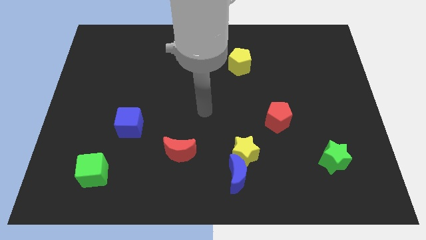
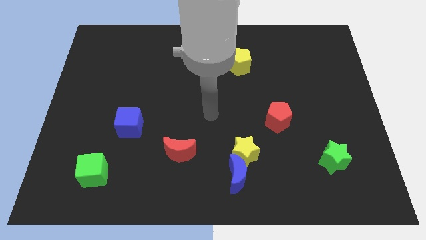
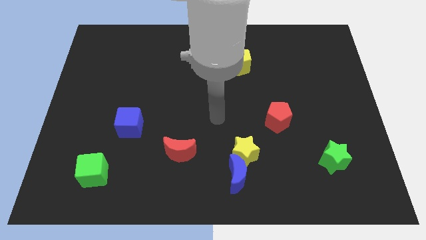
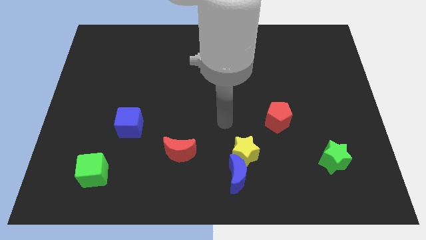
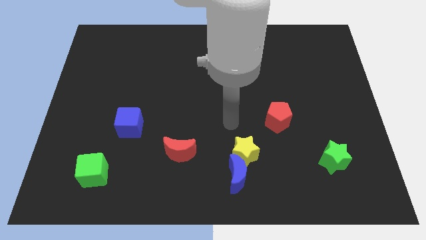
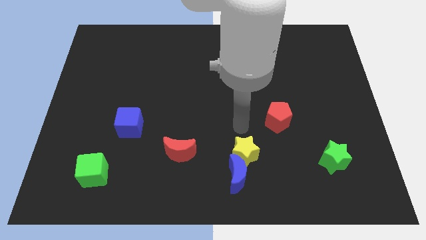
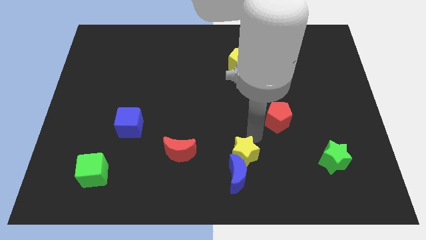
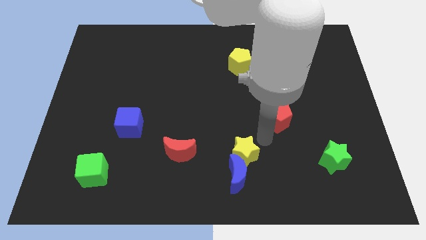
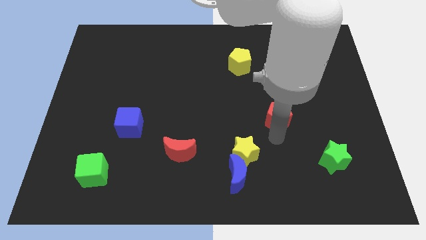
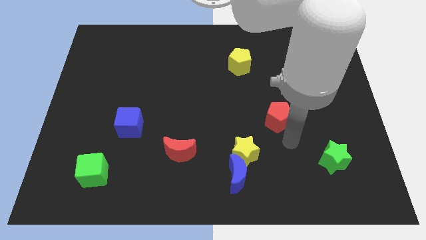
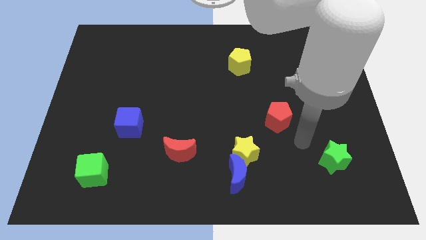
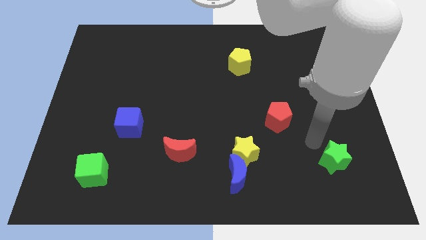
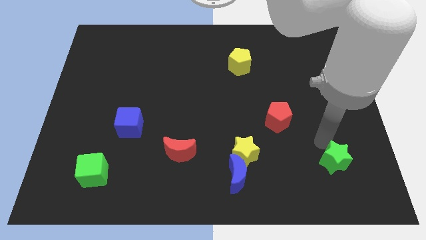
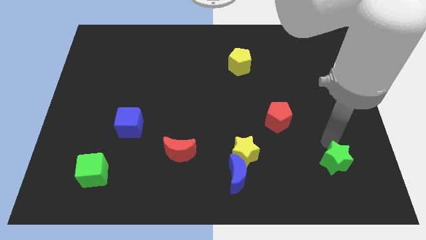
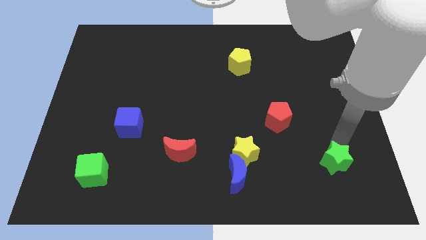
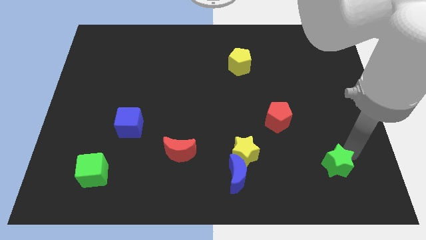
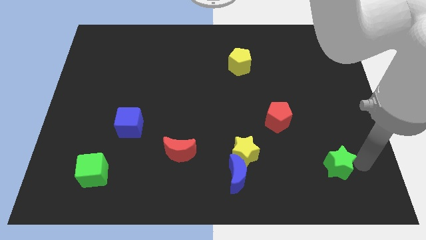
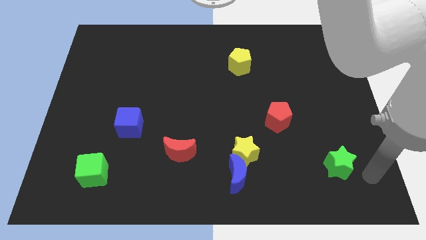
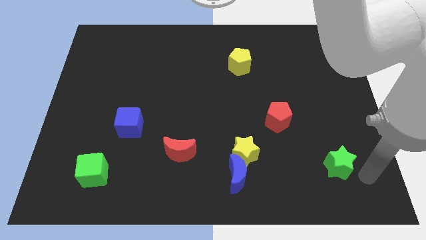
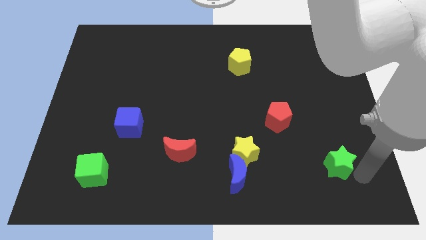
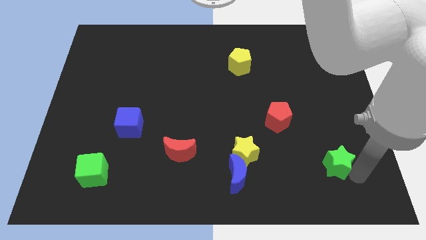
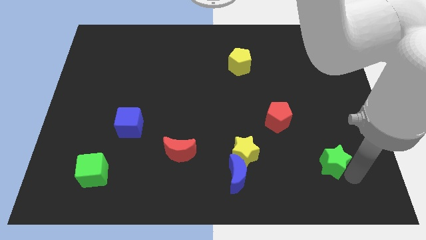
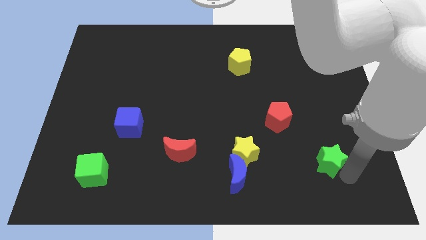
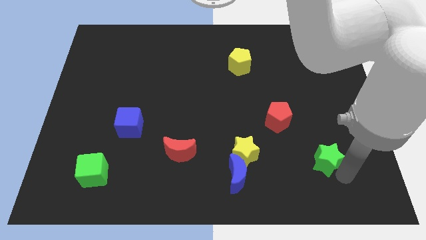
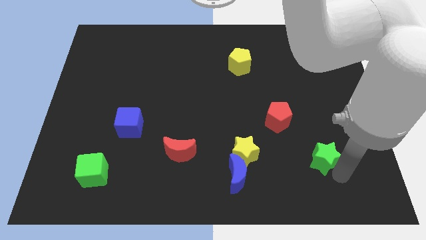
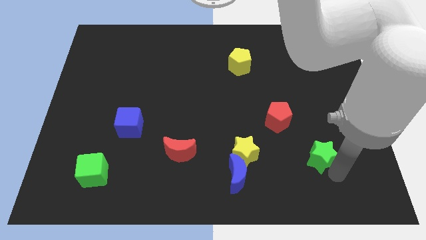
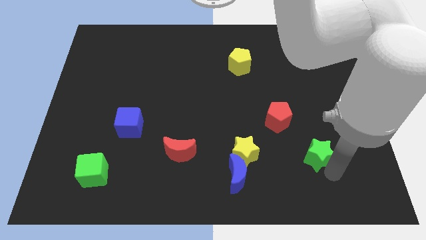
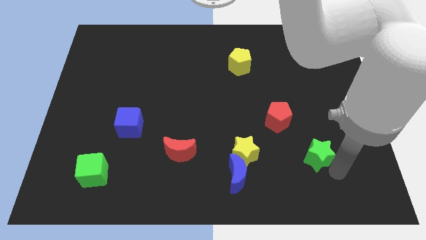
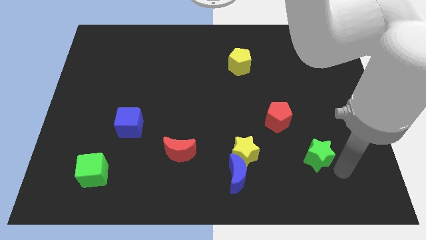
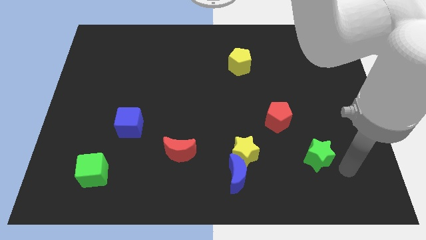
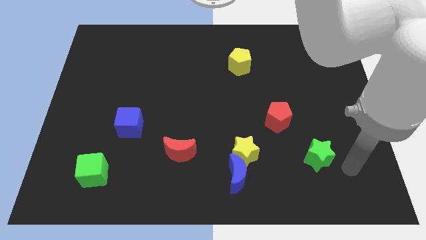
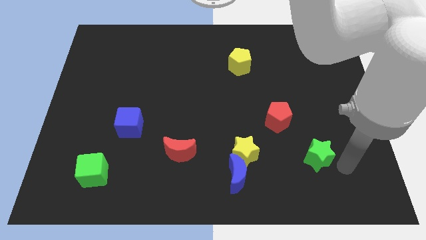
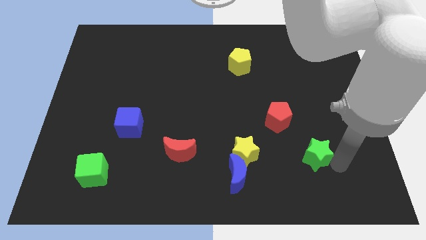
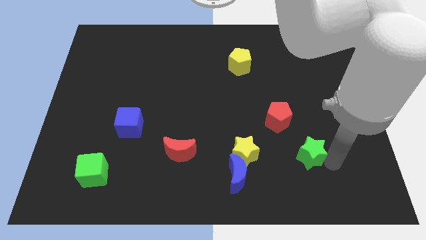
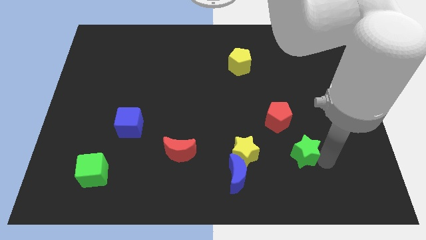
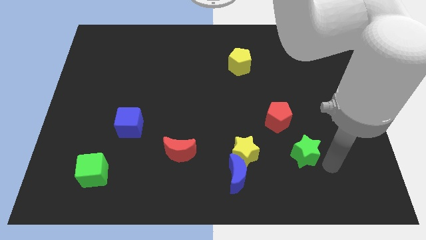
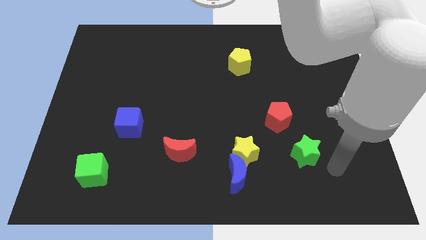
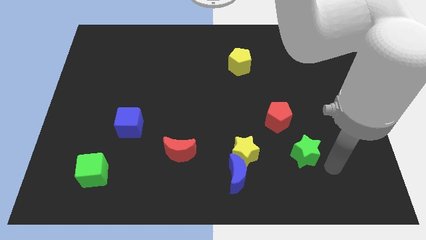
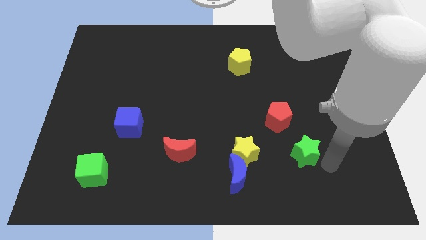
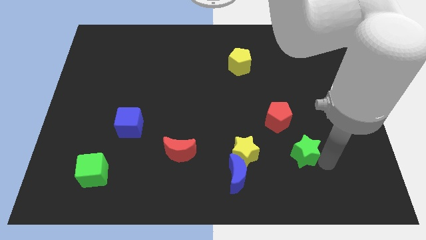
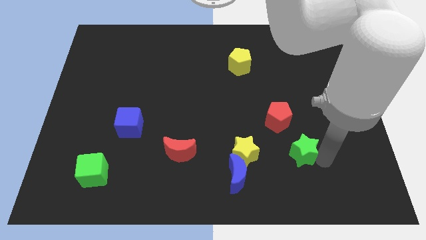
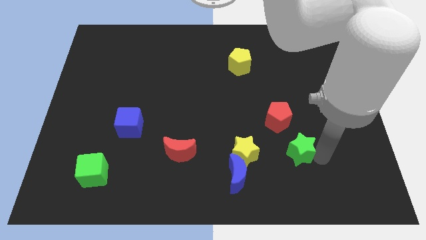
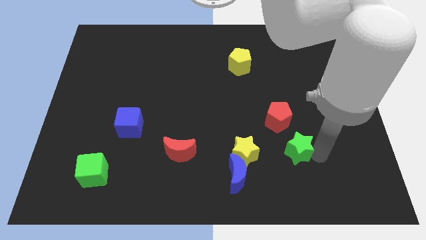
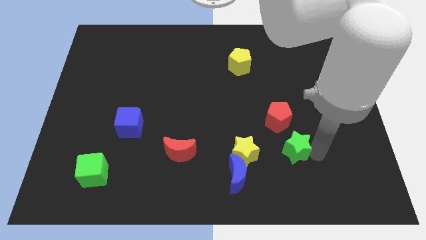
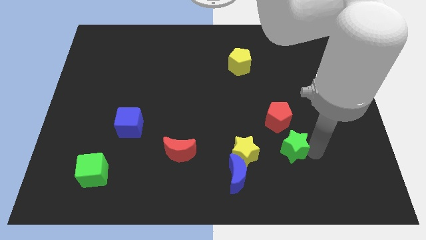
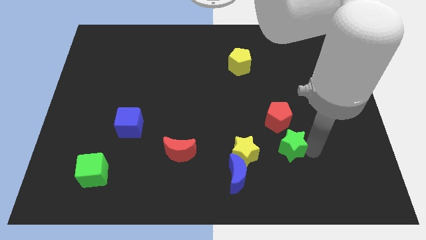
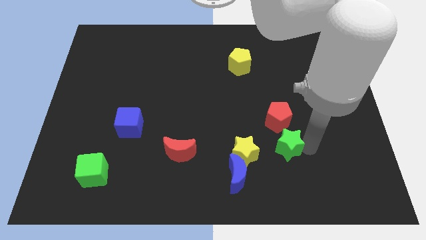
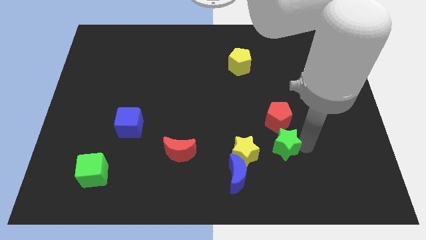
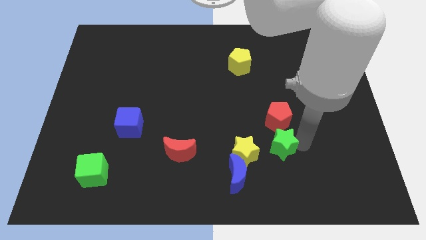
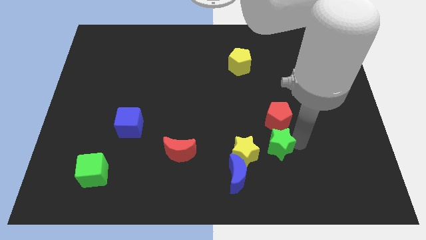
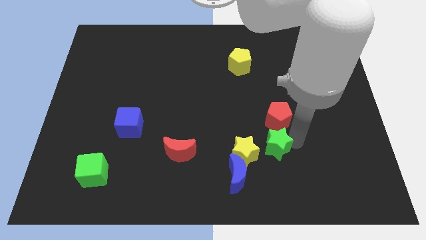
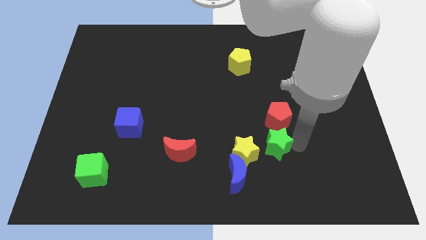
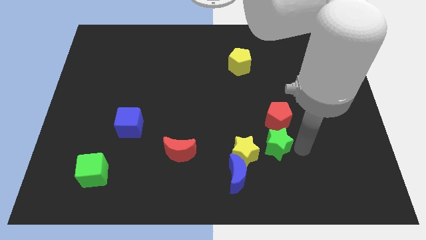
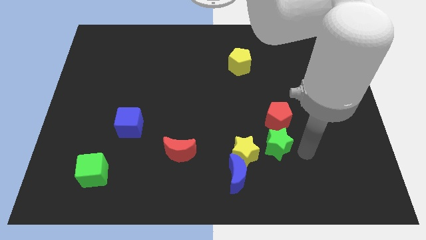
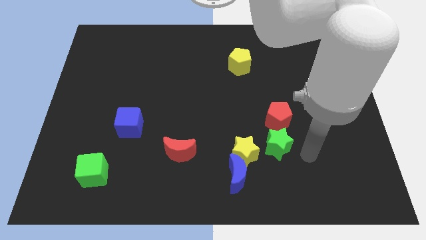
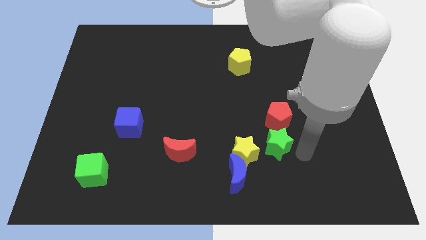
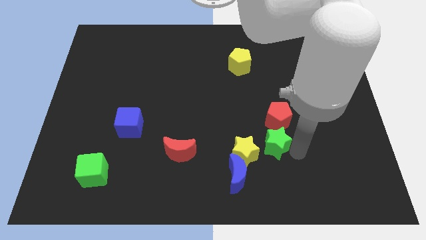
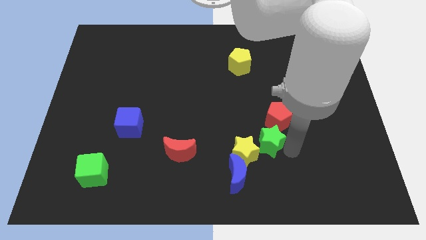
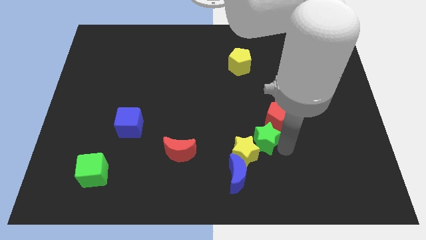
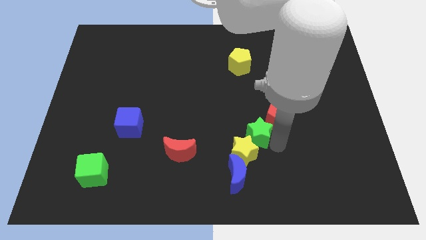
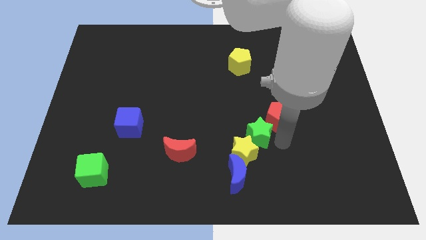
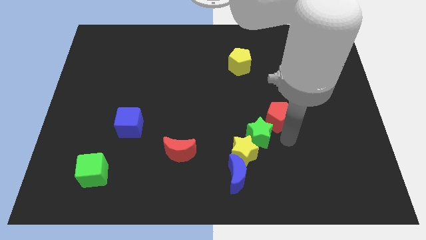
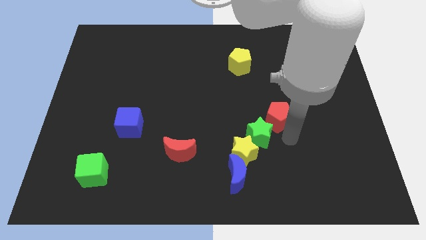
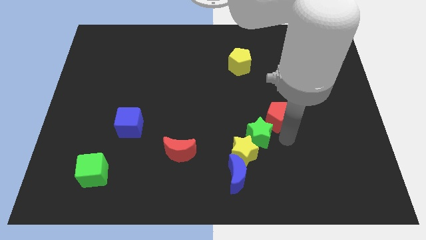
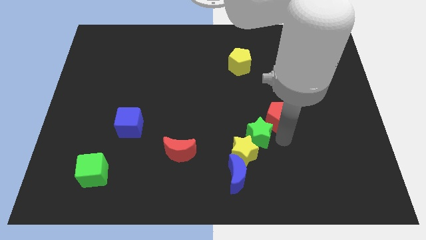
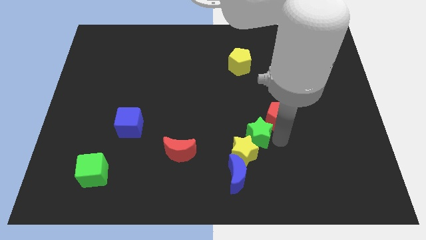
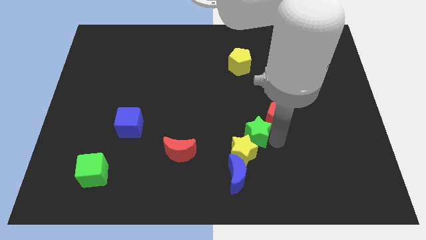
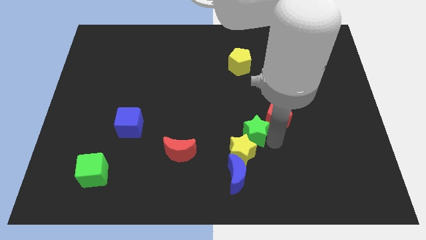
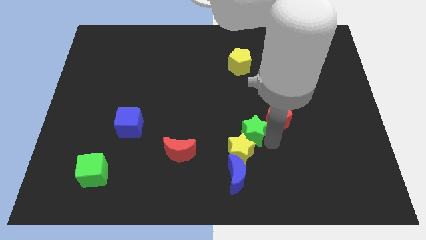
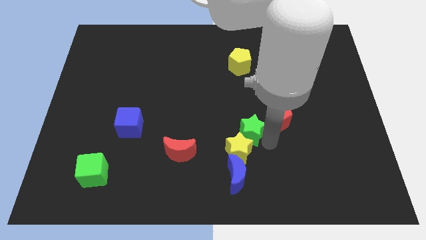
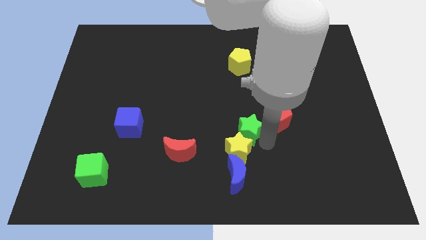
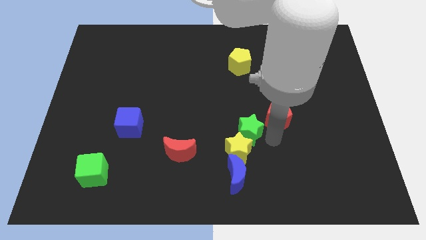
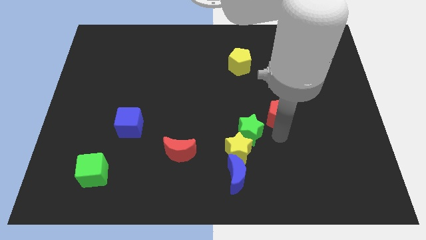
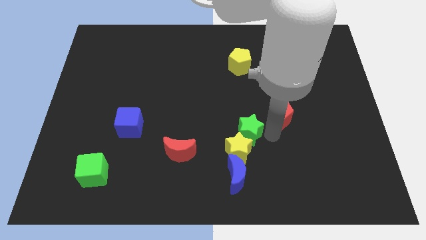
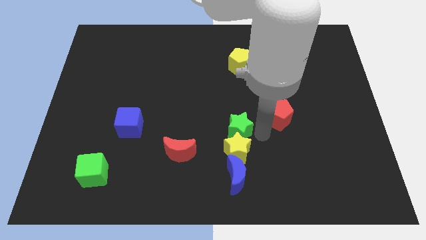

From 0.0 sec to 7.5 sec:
push the green star to the top left side of the yellow star
